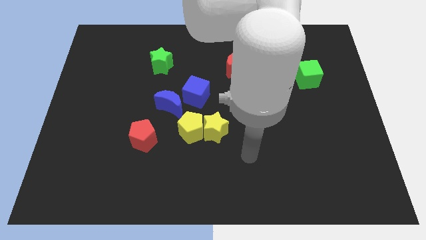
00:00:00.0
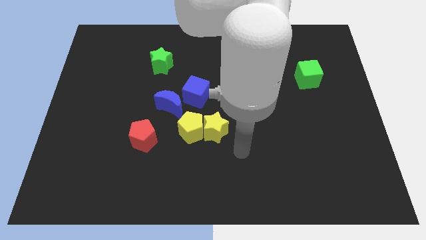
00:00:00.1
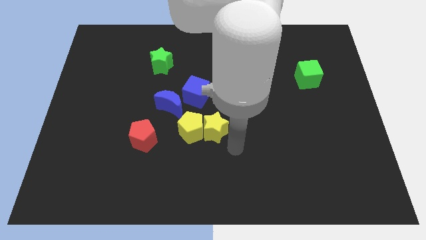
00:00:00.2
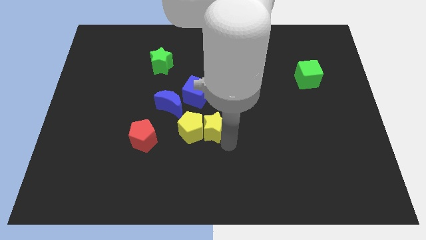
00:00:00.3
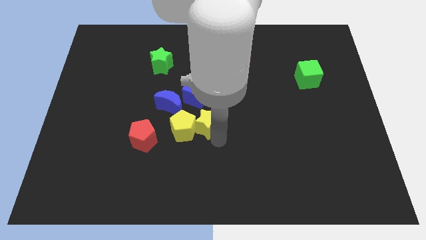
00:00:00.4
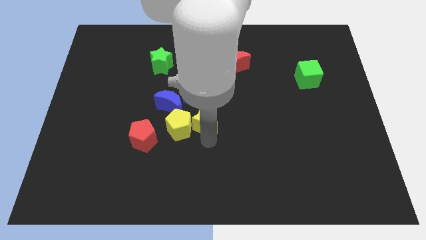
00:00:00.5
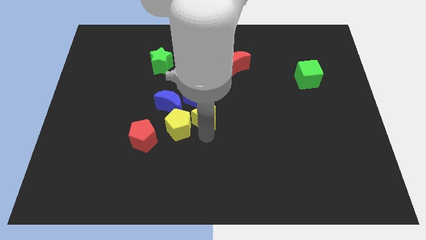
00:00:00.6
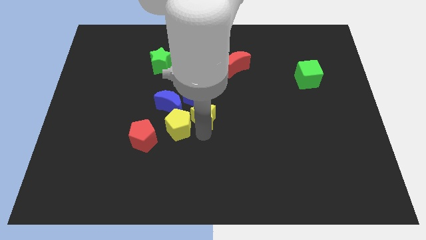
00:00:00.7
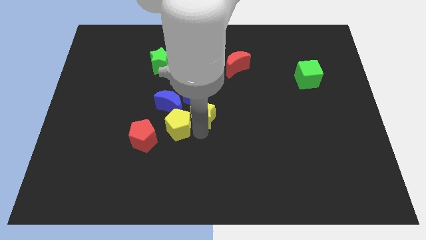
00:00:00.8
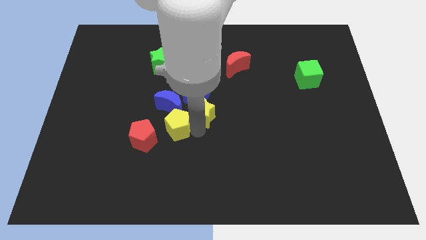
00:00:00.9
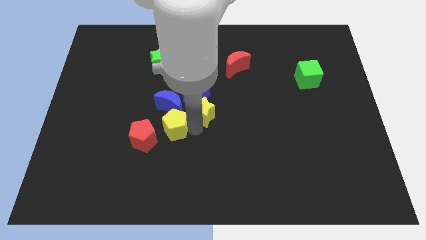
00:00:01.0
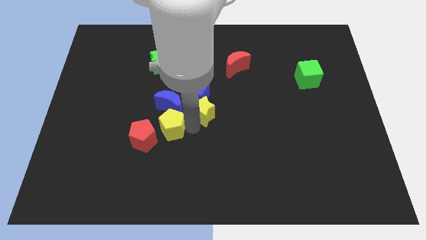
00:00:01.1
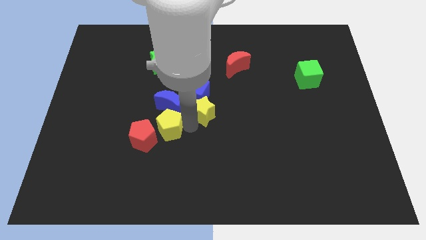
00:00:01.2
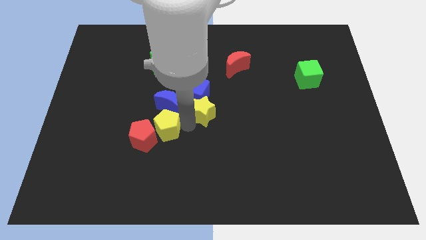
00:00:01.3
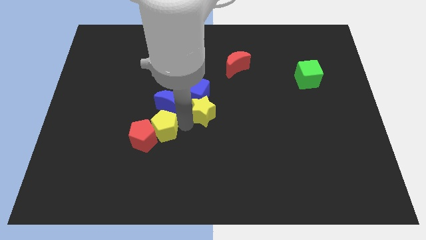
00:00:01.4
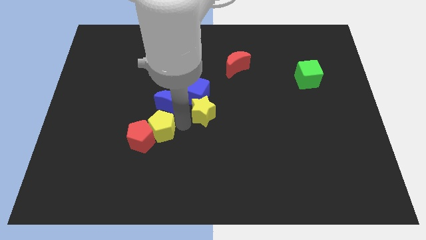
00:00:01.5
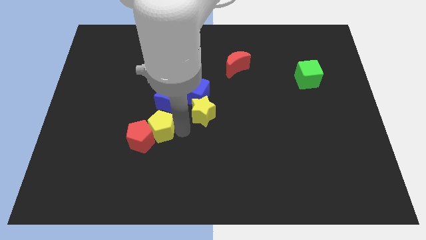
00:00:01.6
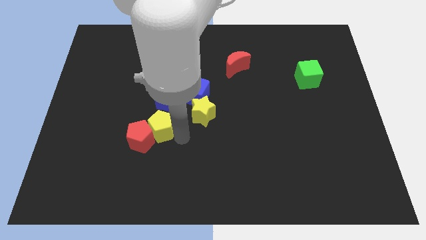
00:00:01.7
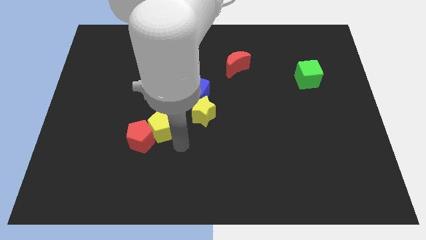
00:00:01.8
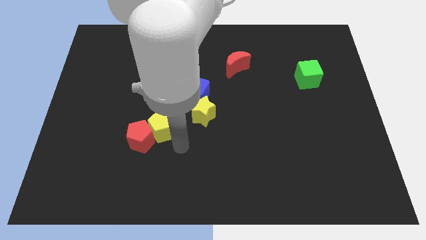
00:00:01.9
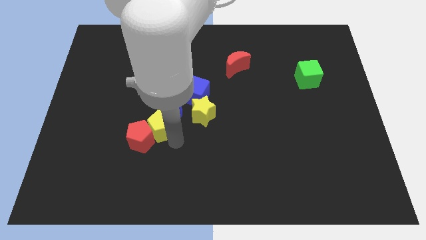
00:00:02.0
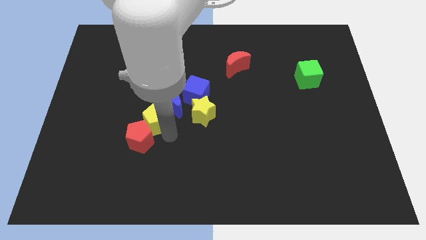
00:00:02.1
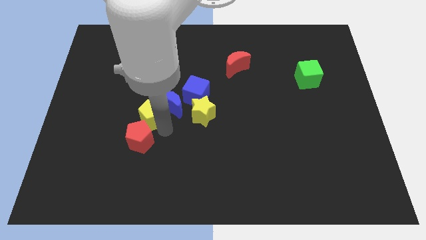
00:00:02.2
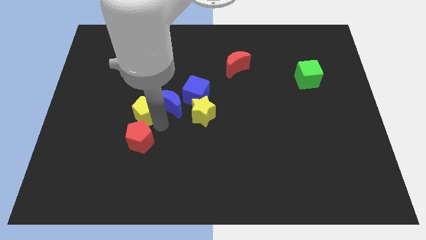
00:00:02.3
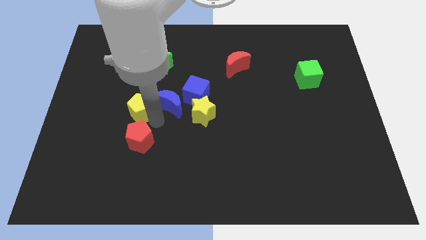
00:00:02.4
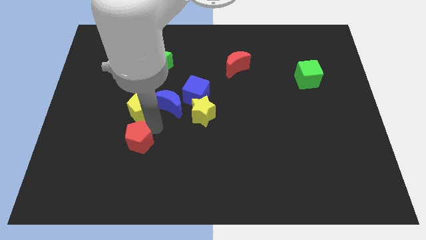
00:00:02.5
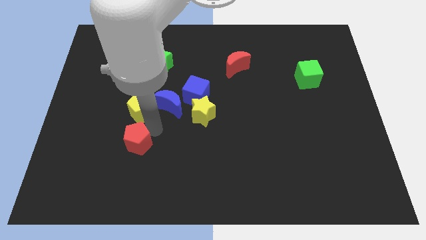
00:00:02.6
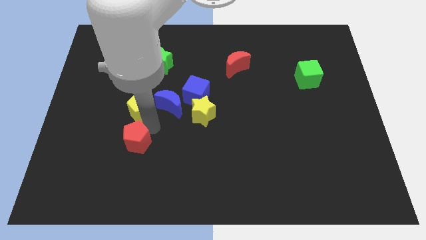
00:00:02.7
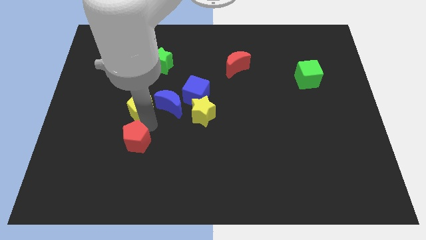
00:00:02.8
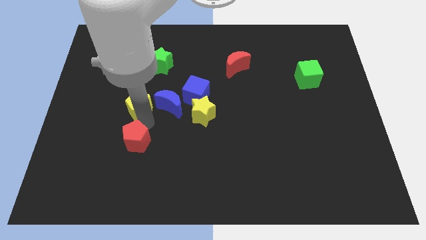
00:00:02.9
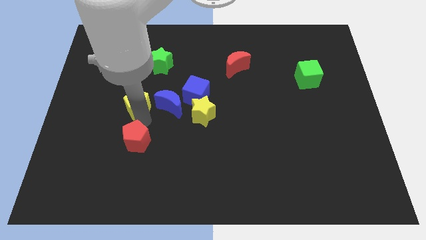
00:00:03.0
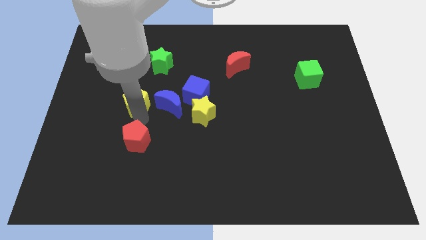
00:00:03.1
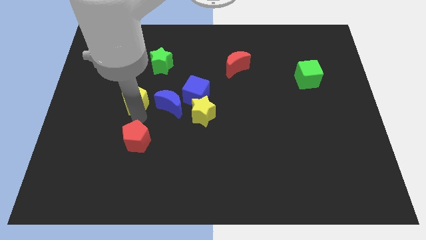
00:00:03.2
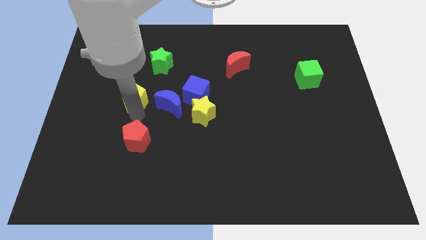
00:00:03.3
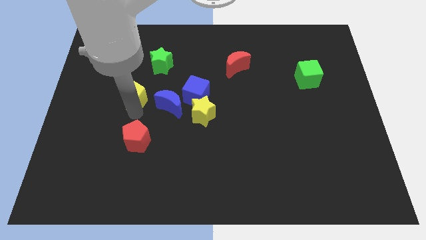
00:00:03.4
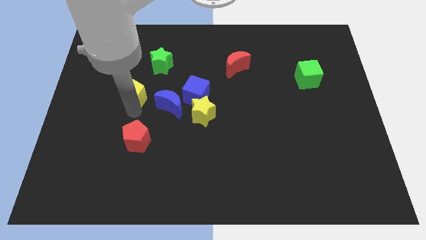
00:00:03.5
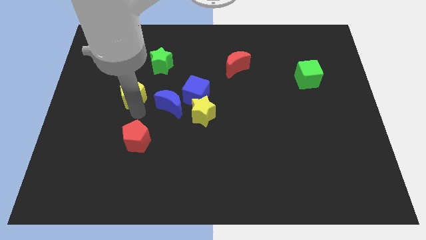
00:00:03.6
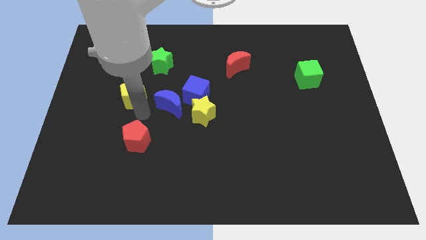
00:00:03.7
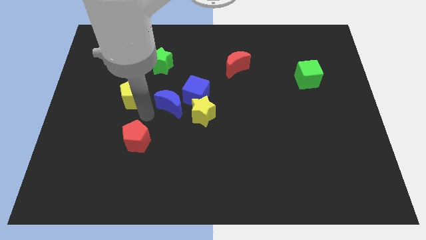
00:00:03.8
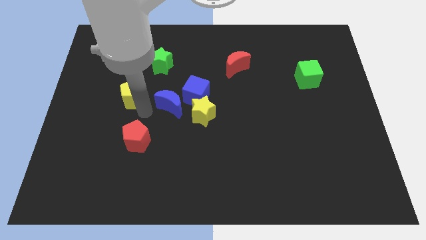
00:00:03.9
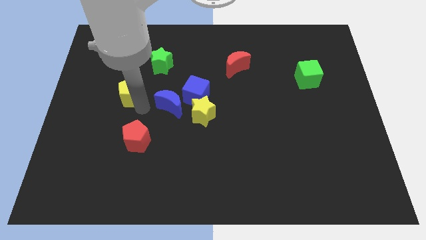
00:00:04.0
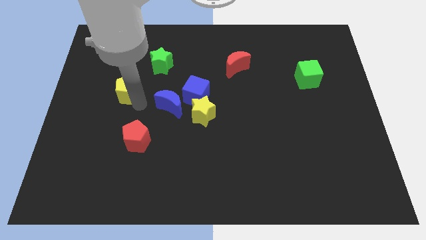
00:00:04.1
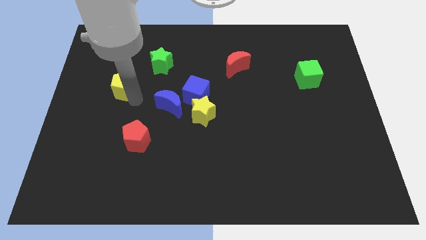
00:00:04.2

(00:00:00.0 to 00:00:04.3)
slide the yellow pentagon diagonally up and left

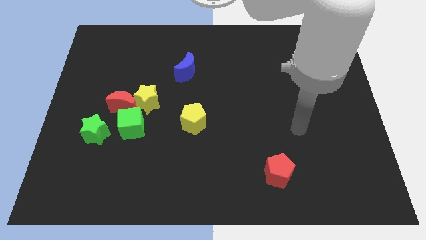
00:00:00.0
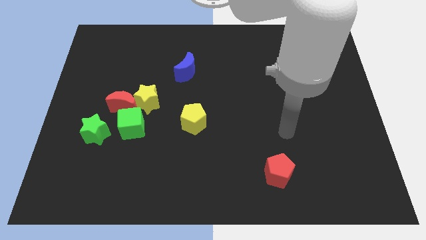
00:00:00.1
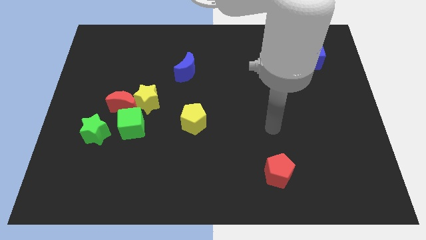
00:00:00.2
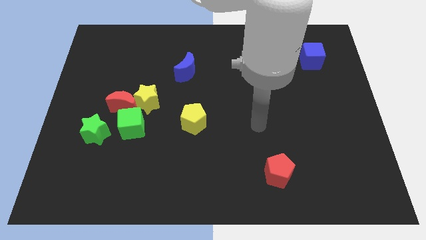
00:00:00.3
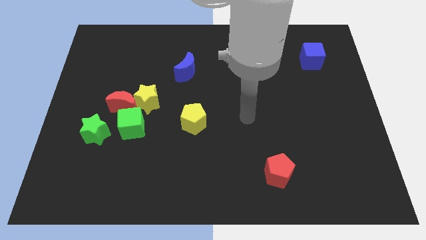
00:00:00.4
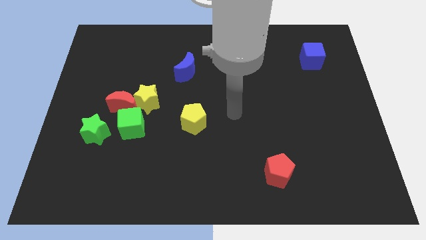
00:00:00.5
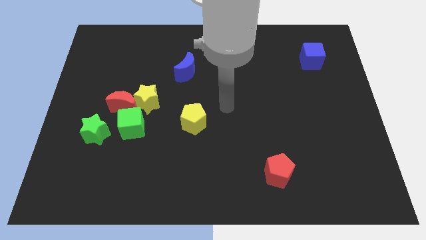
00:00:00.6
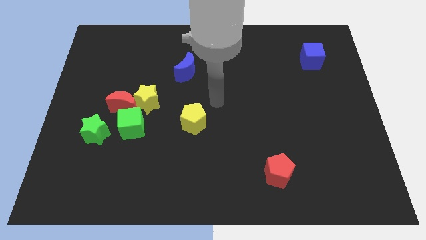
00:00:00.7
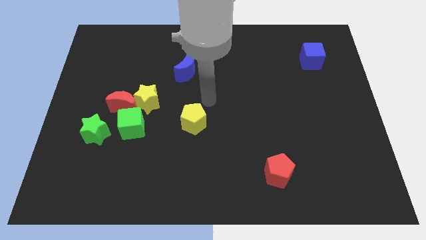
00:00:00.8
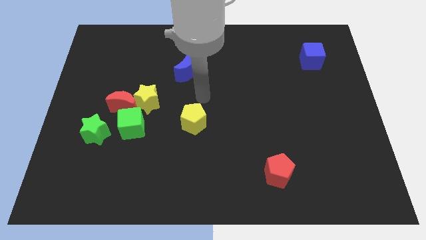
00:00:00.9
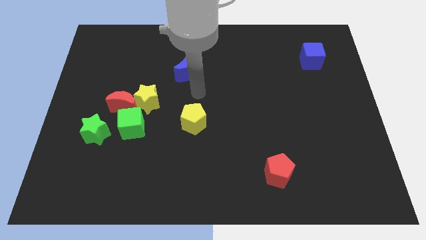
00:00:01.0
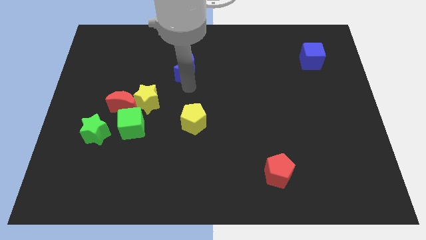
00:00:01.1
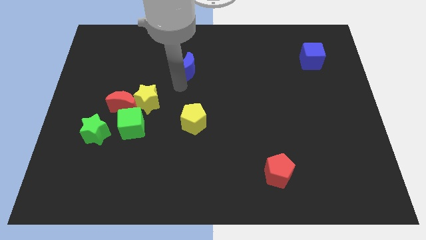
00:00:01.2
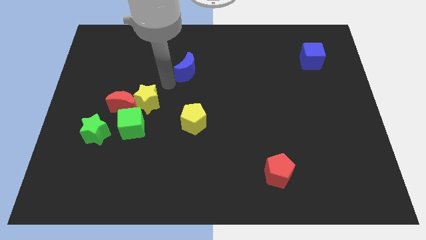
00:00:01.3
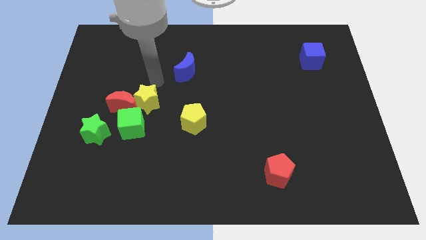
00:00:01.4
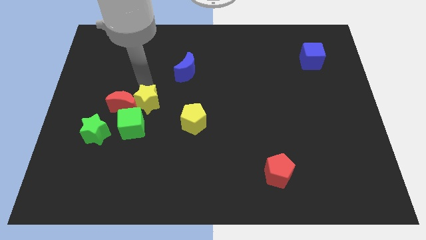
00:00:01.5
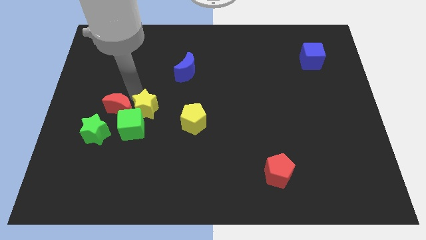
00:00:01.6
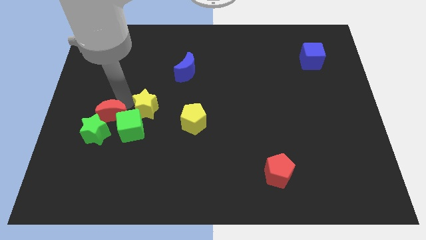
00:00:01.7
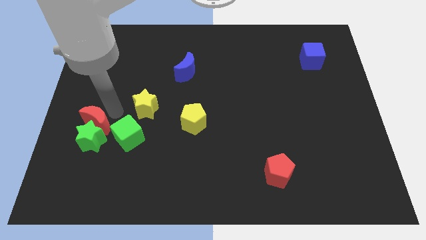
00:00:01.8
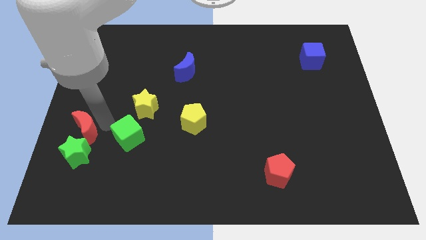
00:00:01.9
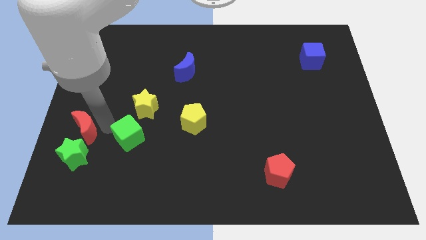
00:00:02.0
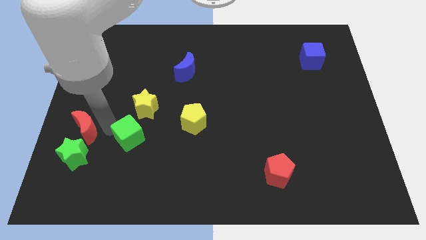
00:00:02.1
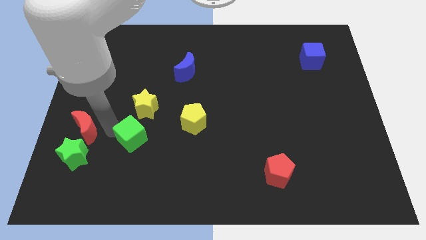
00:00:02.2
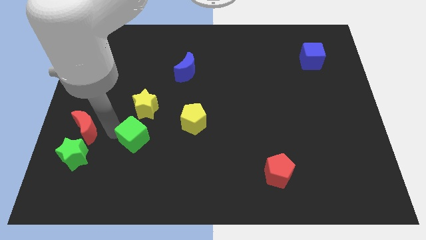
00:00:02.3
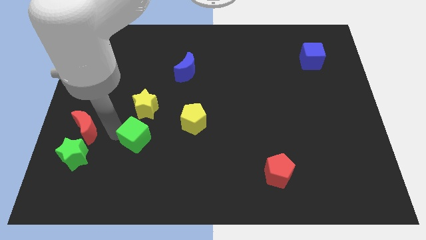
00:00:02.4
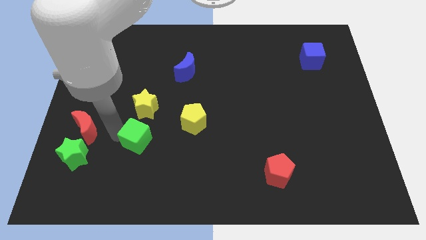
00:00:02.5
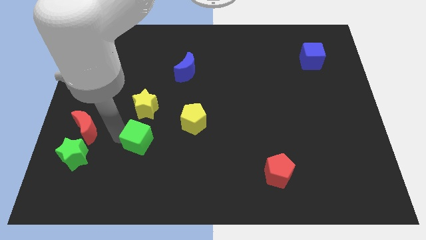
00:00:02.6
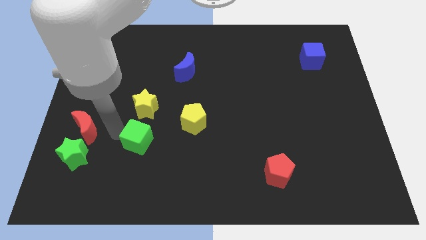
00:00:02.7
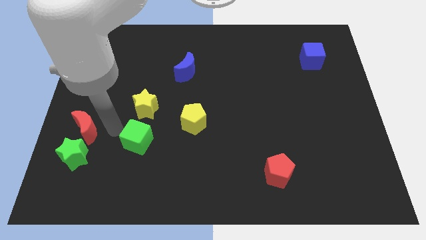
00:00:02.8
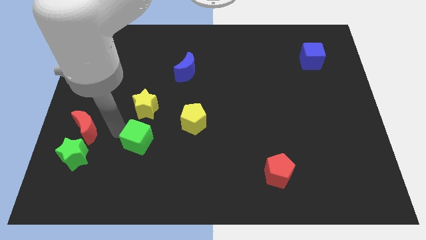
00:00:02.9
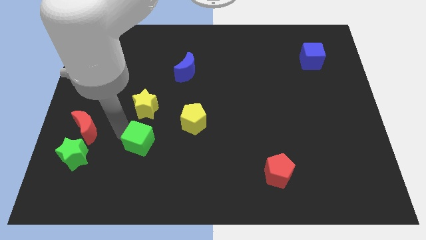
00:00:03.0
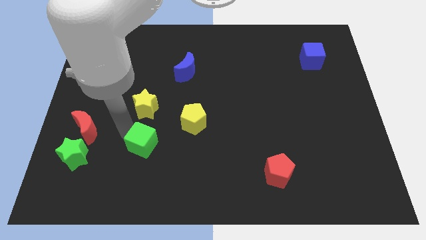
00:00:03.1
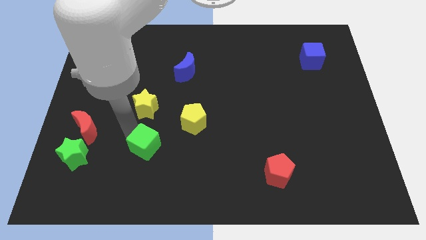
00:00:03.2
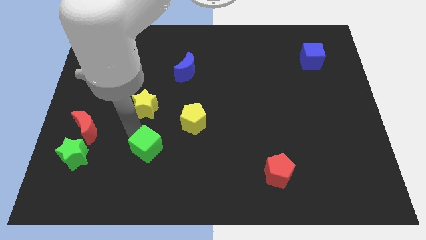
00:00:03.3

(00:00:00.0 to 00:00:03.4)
push the green cube diagonally downwards and to the right a little bit

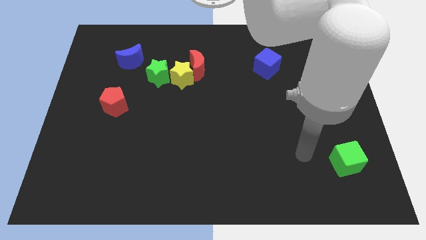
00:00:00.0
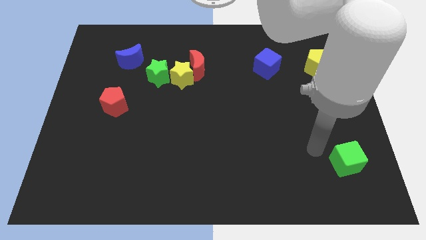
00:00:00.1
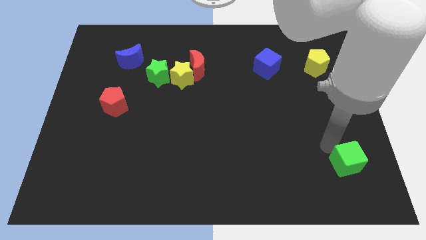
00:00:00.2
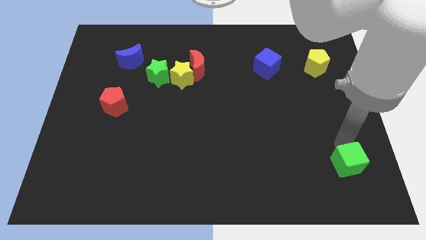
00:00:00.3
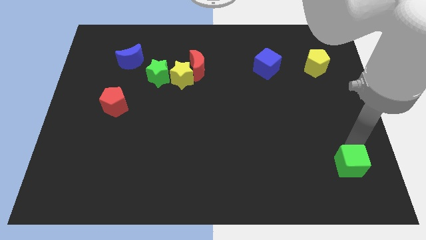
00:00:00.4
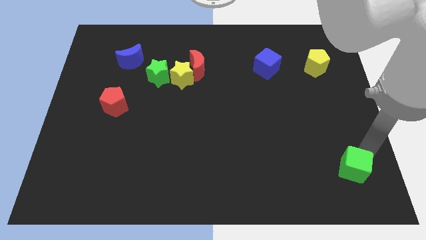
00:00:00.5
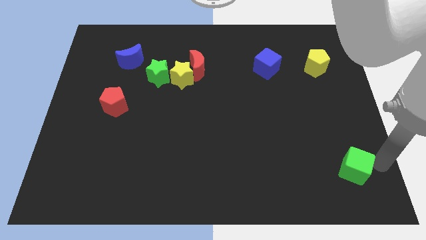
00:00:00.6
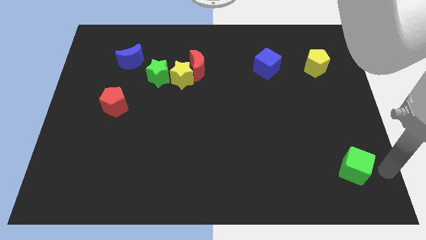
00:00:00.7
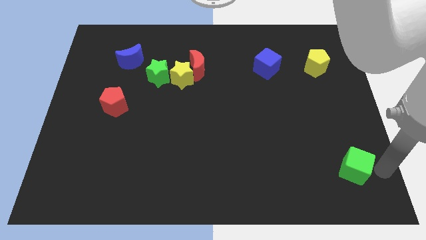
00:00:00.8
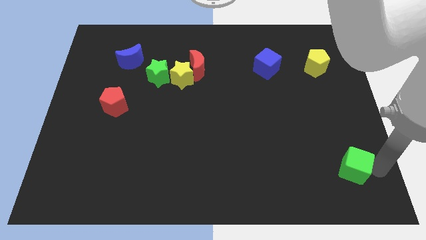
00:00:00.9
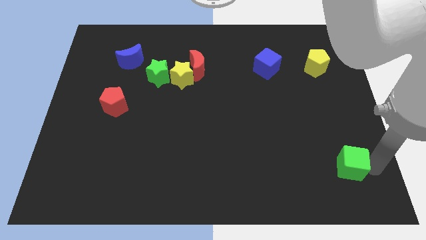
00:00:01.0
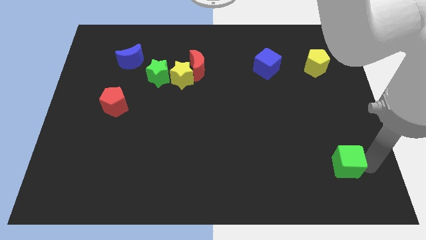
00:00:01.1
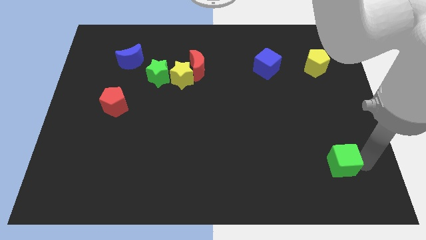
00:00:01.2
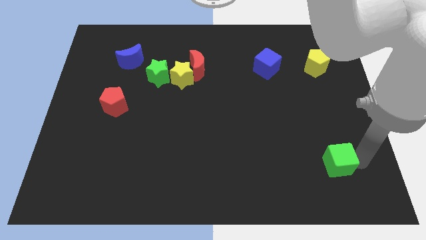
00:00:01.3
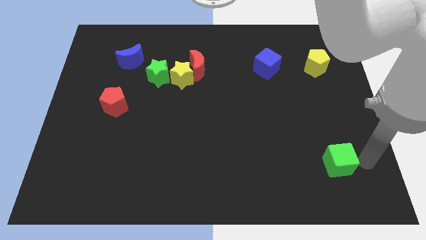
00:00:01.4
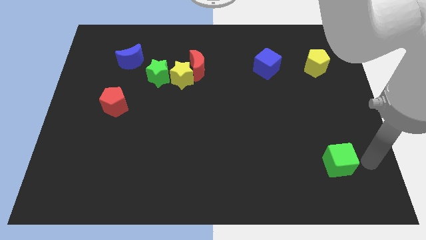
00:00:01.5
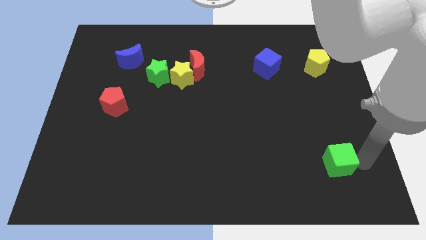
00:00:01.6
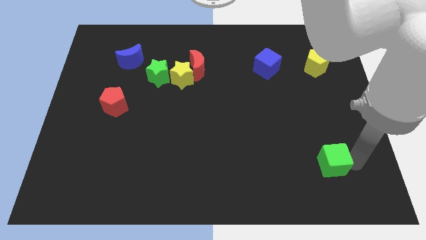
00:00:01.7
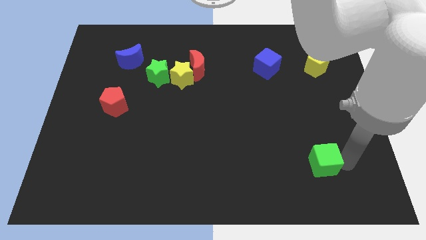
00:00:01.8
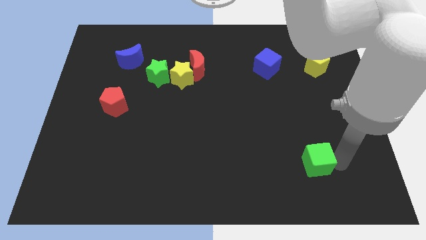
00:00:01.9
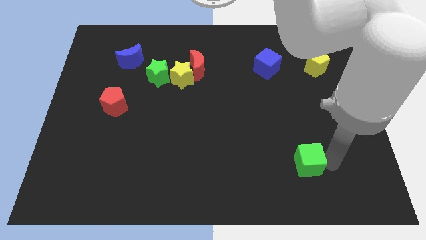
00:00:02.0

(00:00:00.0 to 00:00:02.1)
slightly slide the green cube to the left
